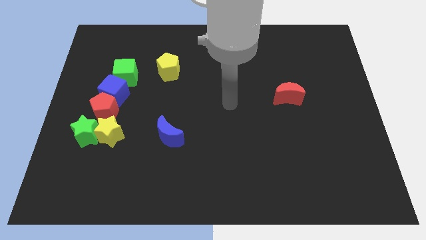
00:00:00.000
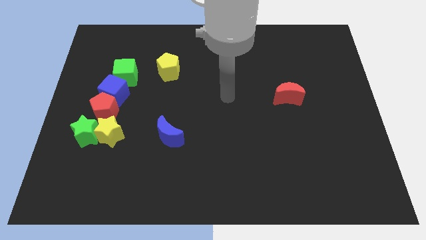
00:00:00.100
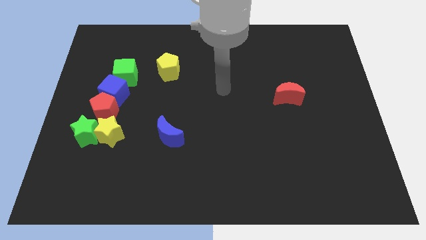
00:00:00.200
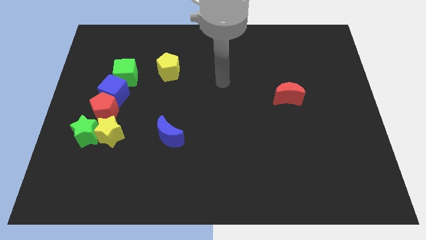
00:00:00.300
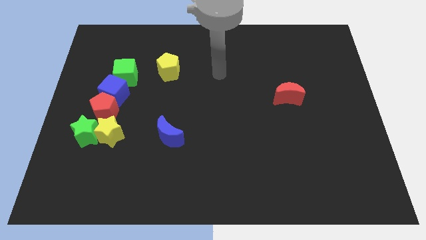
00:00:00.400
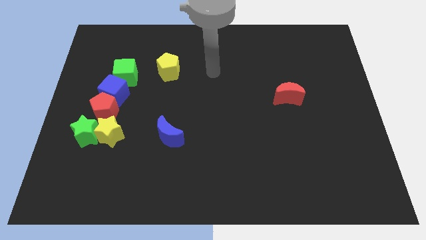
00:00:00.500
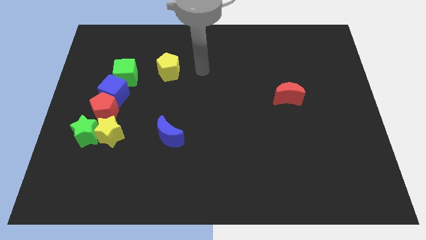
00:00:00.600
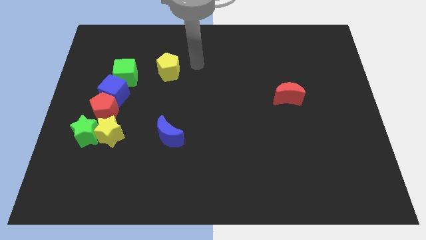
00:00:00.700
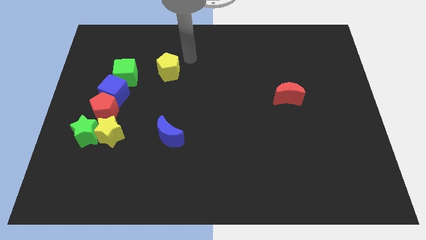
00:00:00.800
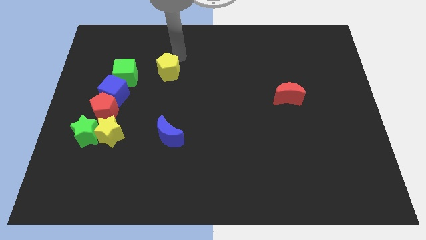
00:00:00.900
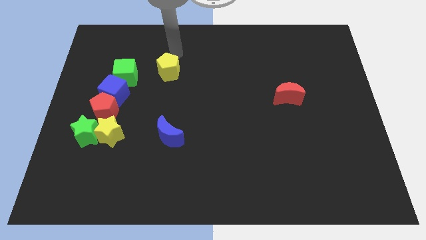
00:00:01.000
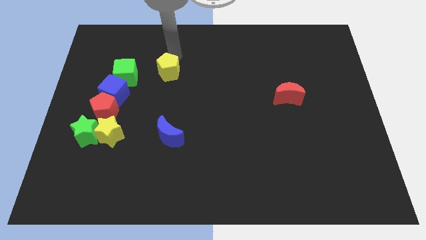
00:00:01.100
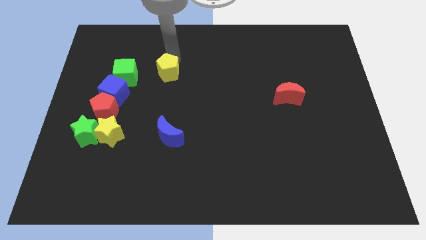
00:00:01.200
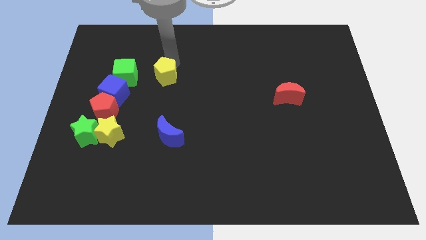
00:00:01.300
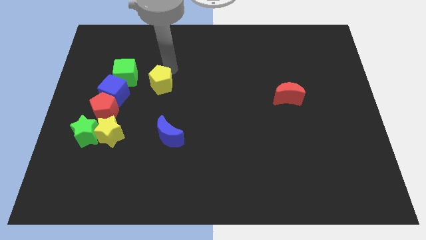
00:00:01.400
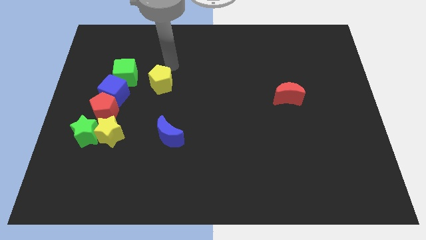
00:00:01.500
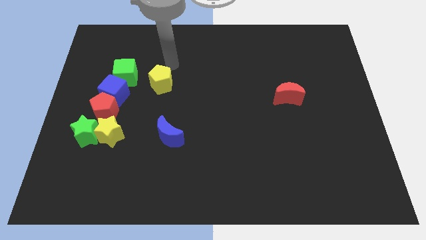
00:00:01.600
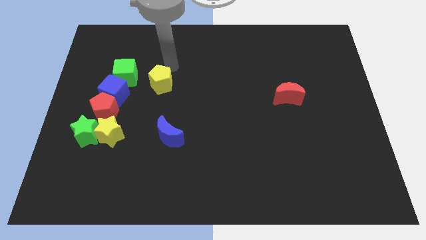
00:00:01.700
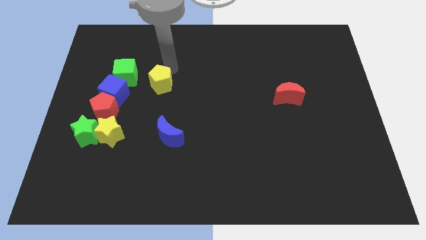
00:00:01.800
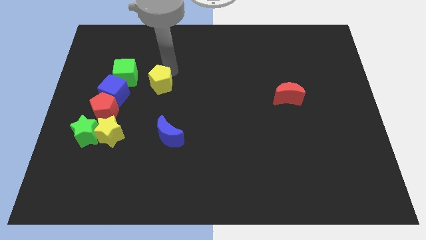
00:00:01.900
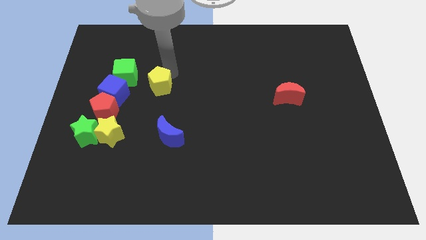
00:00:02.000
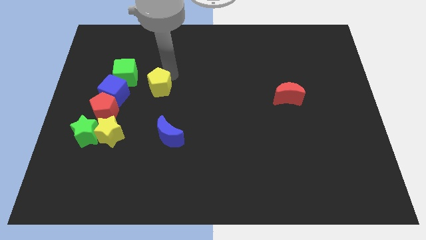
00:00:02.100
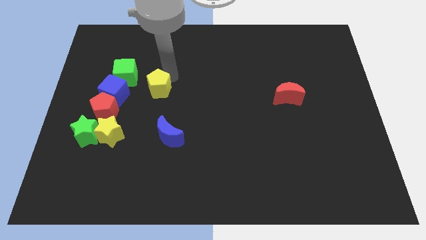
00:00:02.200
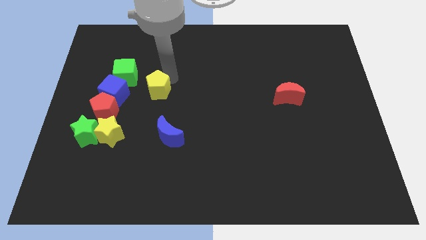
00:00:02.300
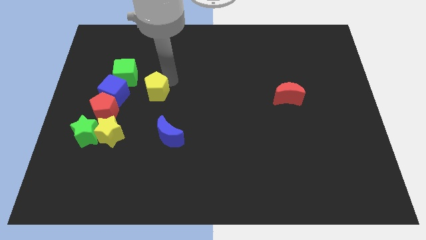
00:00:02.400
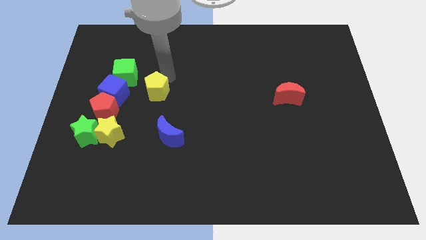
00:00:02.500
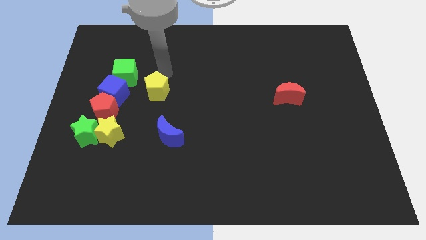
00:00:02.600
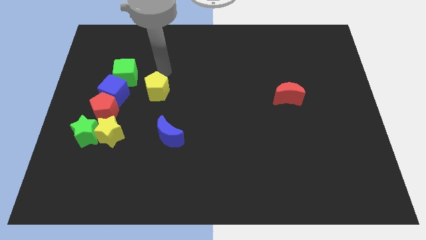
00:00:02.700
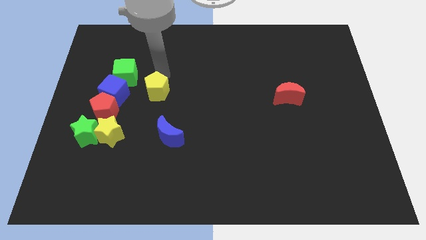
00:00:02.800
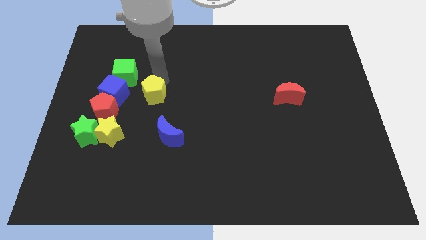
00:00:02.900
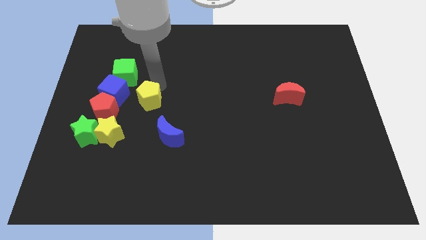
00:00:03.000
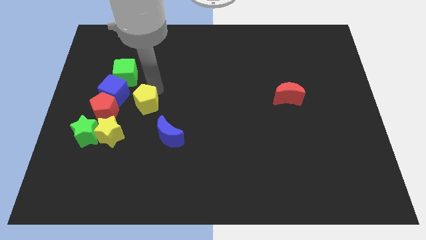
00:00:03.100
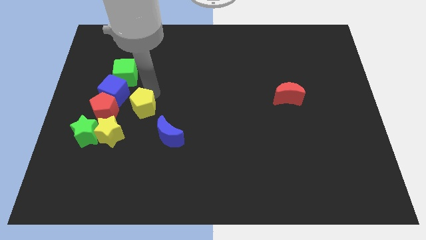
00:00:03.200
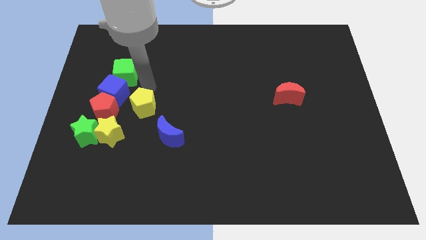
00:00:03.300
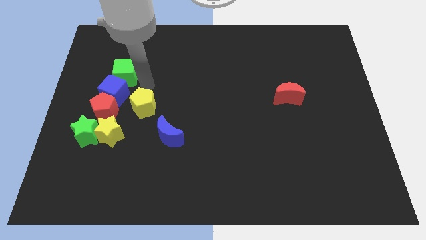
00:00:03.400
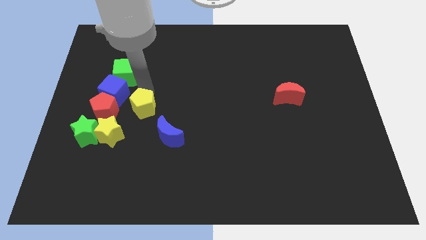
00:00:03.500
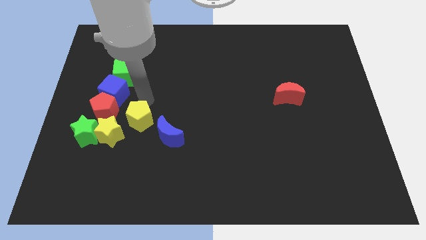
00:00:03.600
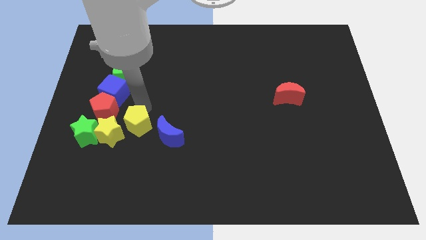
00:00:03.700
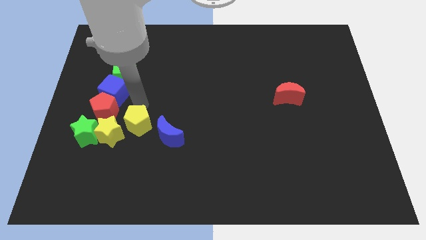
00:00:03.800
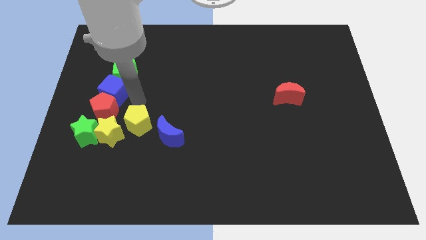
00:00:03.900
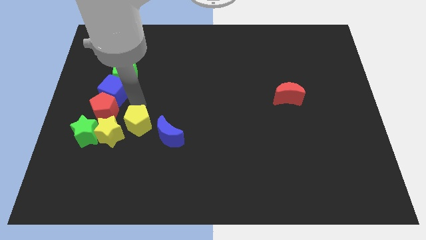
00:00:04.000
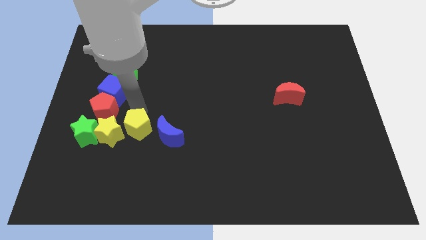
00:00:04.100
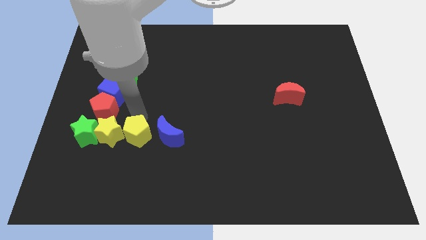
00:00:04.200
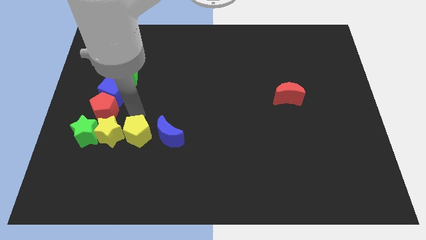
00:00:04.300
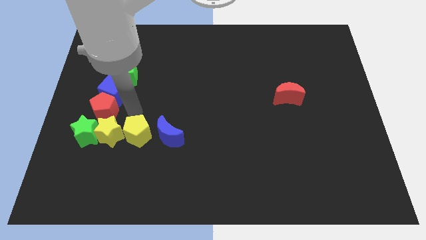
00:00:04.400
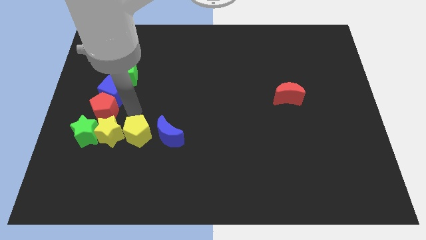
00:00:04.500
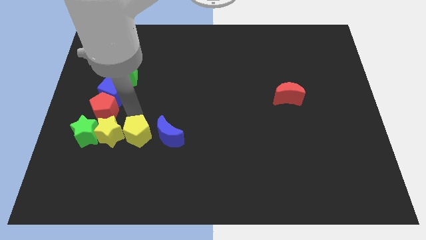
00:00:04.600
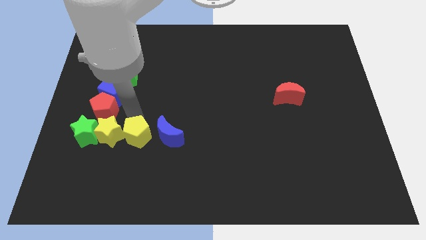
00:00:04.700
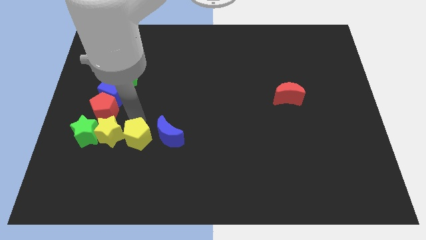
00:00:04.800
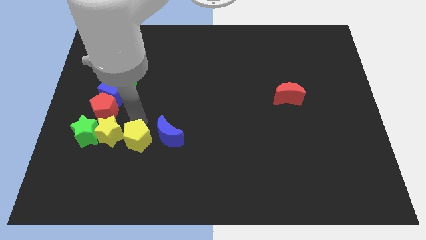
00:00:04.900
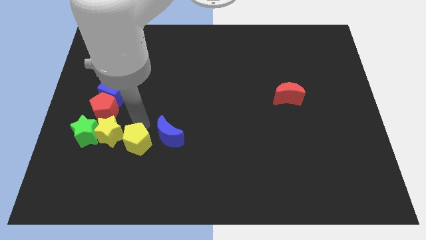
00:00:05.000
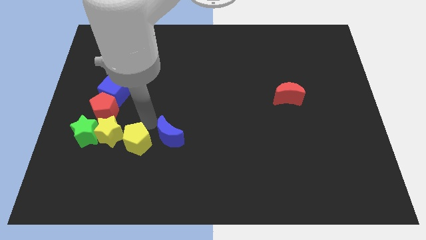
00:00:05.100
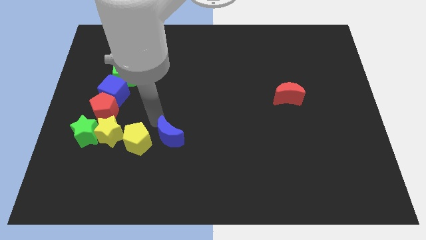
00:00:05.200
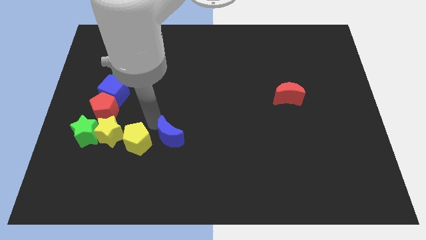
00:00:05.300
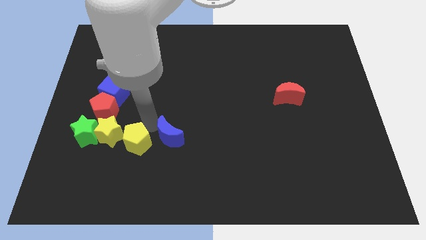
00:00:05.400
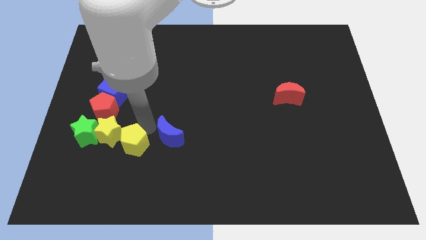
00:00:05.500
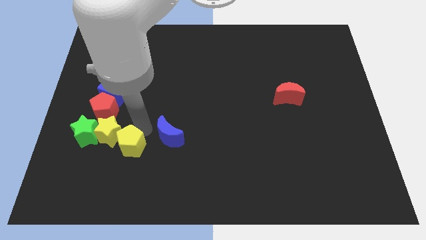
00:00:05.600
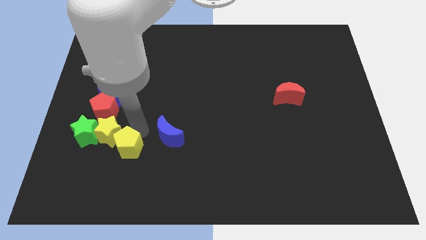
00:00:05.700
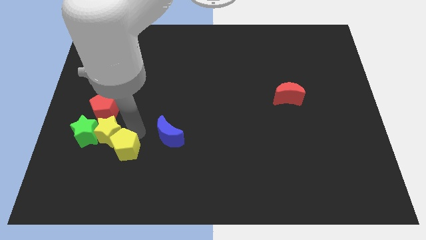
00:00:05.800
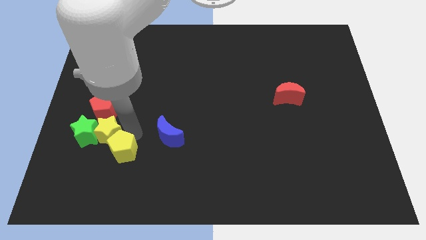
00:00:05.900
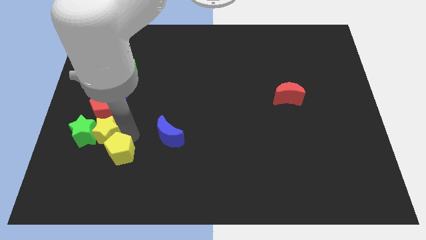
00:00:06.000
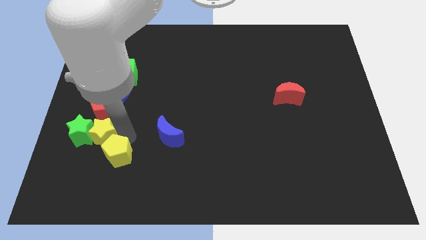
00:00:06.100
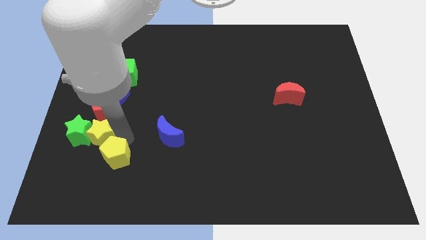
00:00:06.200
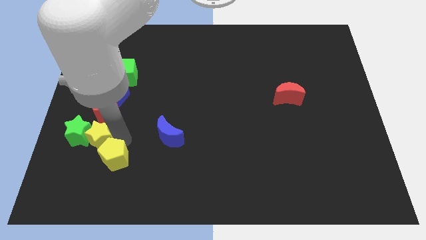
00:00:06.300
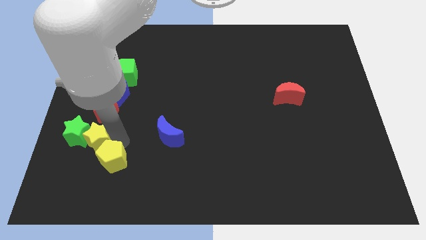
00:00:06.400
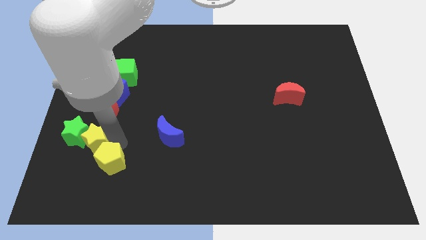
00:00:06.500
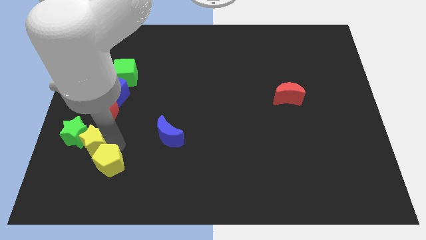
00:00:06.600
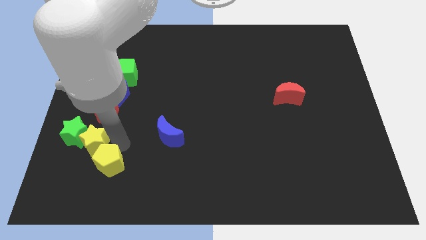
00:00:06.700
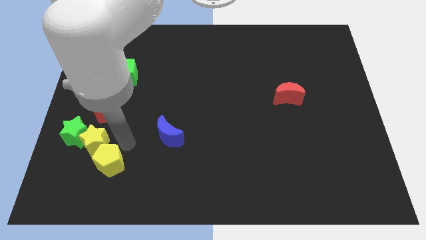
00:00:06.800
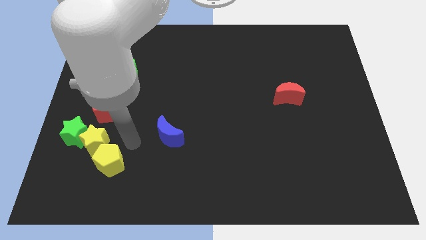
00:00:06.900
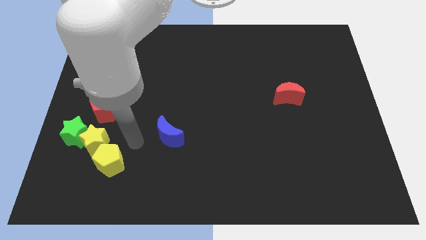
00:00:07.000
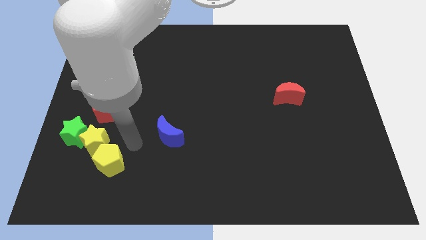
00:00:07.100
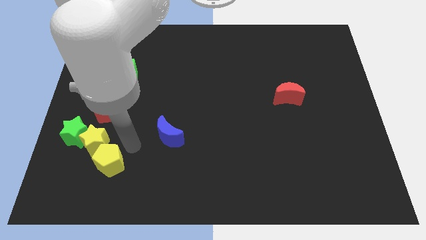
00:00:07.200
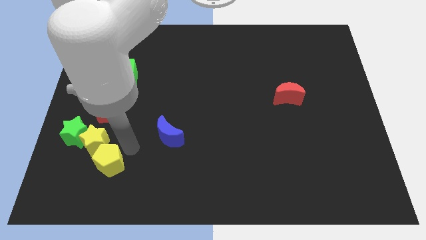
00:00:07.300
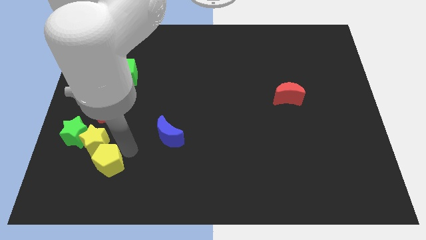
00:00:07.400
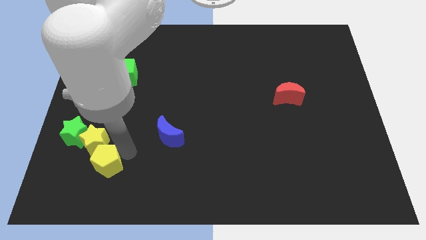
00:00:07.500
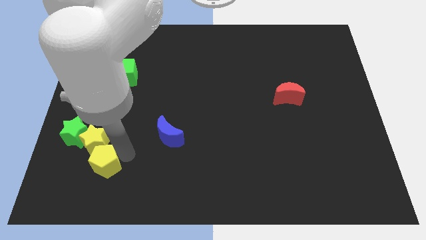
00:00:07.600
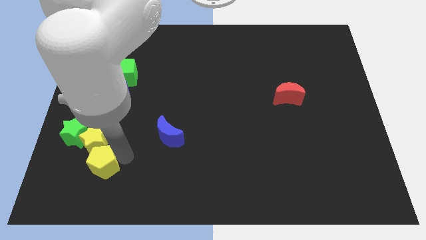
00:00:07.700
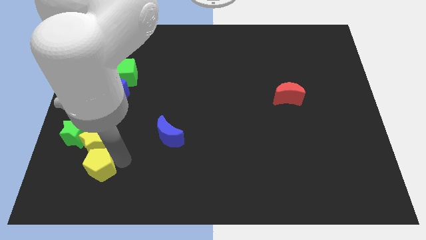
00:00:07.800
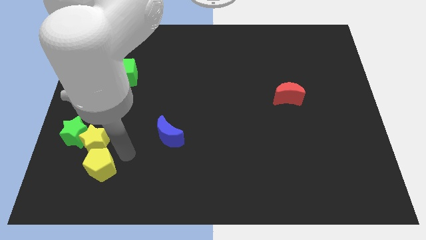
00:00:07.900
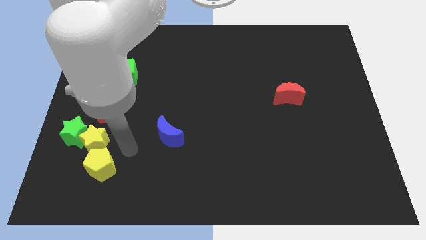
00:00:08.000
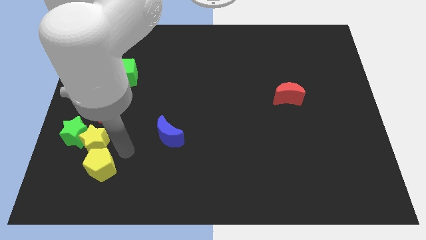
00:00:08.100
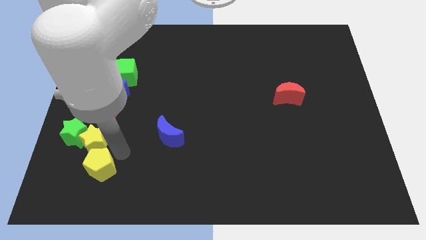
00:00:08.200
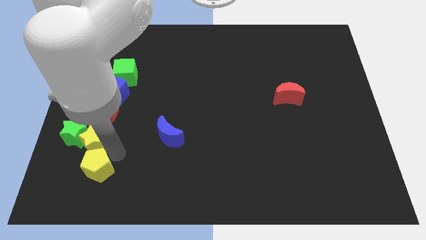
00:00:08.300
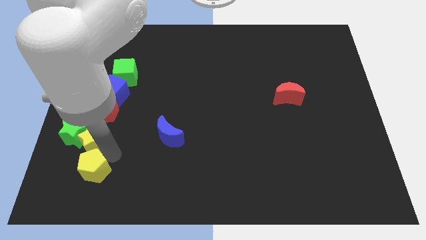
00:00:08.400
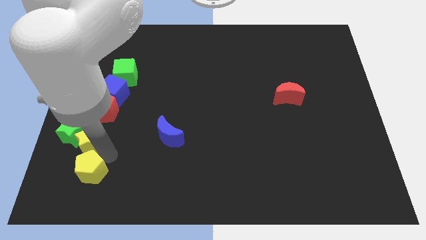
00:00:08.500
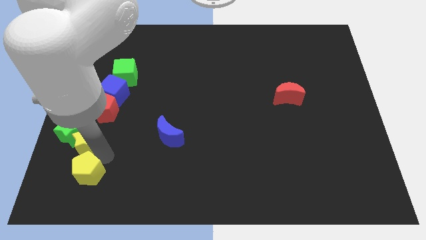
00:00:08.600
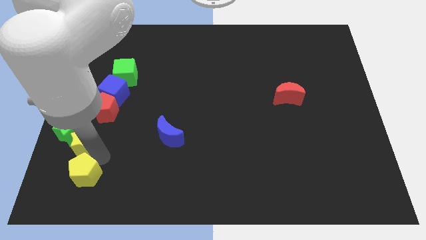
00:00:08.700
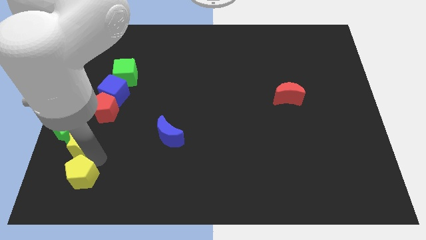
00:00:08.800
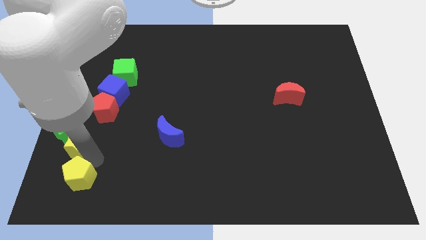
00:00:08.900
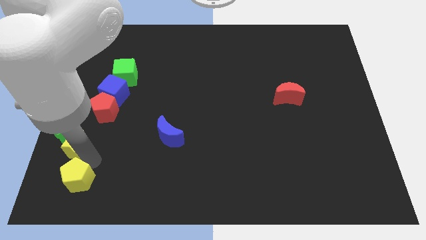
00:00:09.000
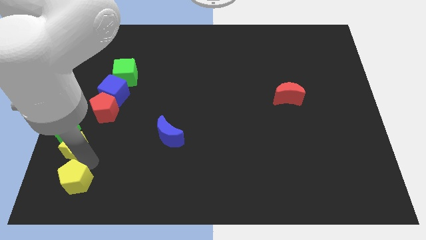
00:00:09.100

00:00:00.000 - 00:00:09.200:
move the yellow pentagon to the bottom left of the board
